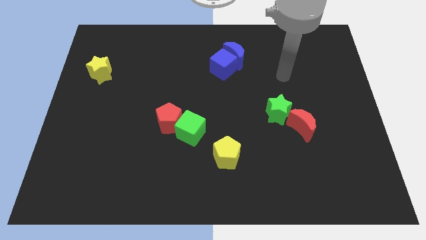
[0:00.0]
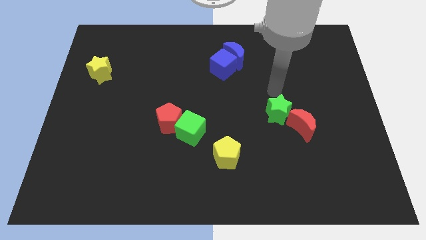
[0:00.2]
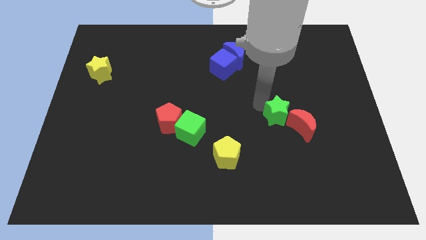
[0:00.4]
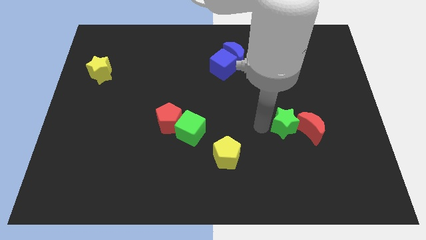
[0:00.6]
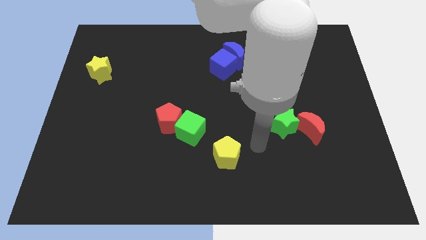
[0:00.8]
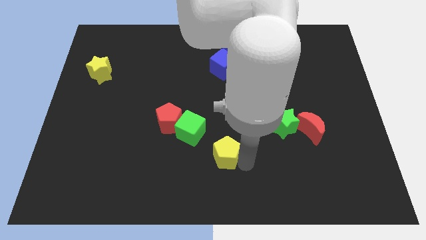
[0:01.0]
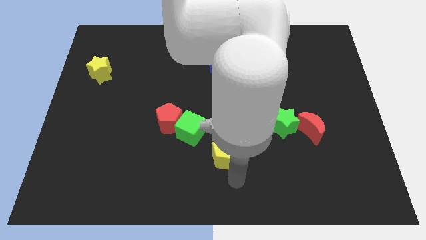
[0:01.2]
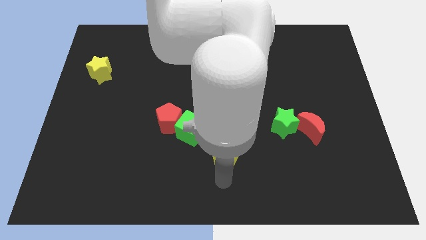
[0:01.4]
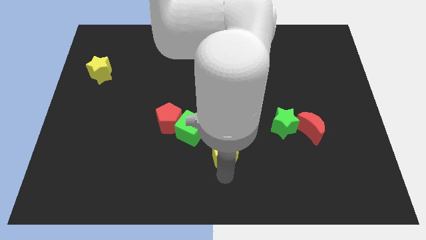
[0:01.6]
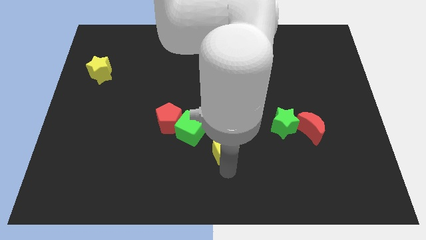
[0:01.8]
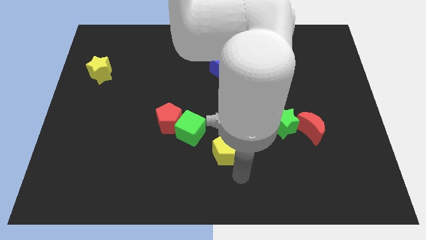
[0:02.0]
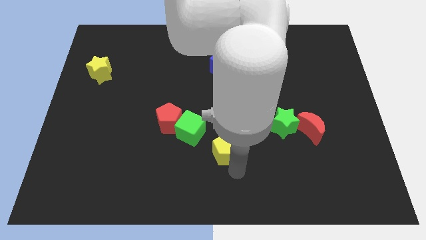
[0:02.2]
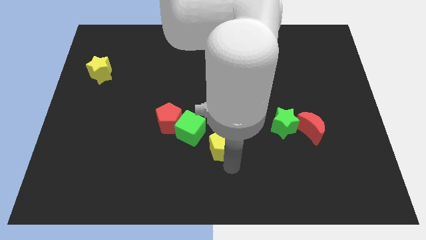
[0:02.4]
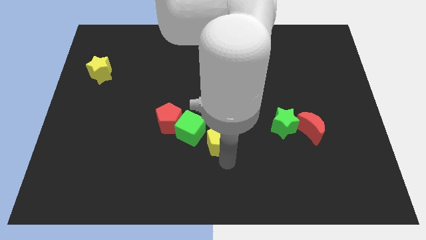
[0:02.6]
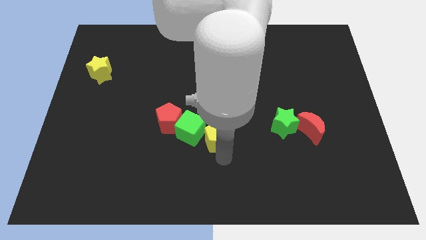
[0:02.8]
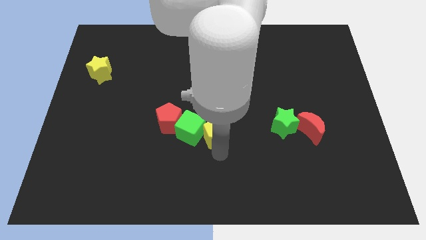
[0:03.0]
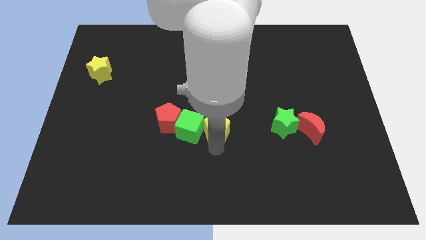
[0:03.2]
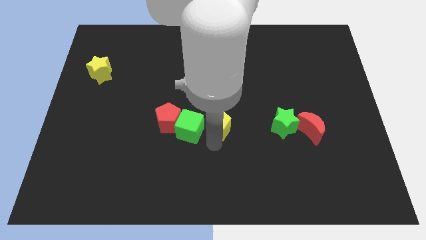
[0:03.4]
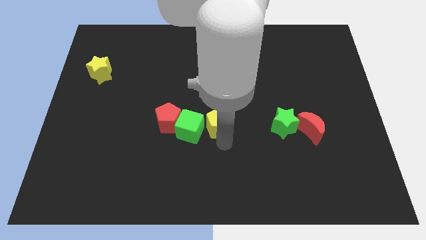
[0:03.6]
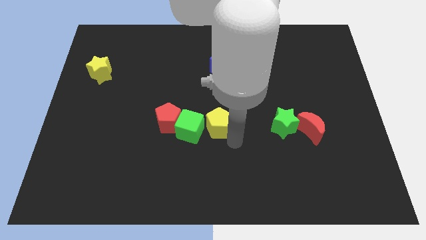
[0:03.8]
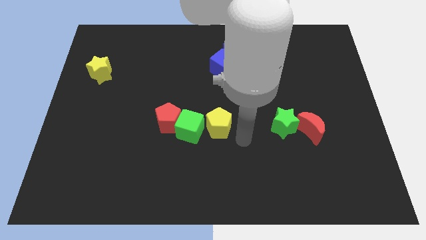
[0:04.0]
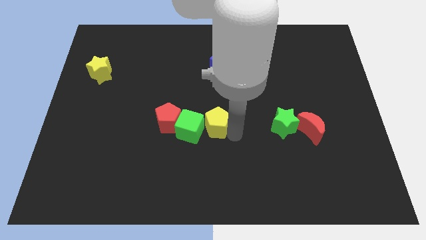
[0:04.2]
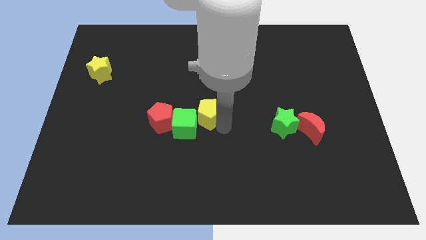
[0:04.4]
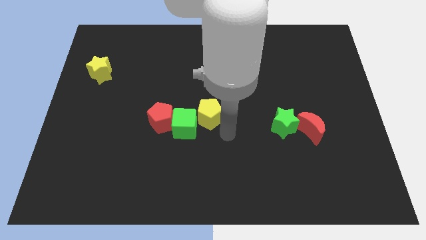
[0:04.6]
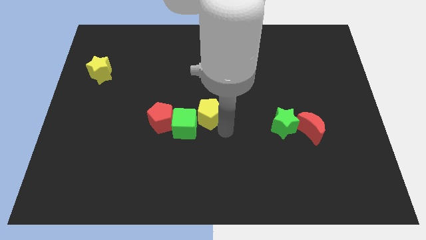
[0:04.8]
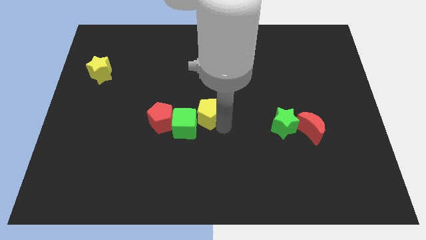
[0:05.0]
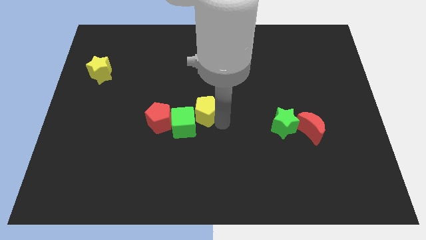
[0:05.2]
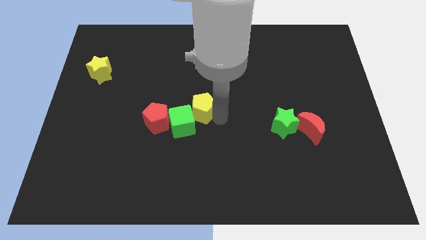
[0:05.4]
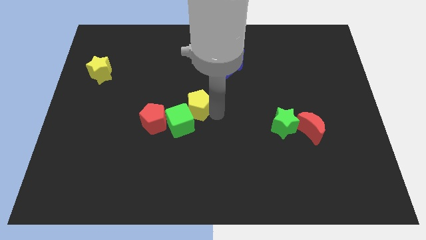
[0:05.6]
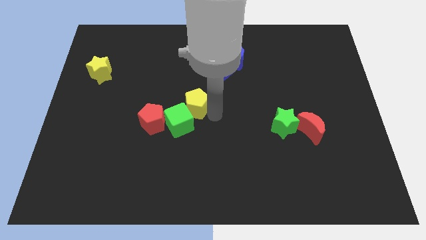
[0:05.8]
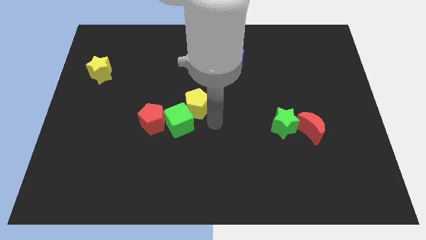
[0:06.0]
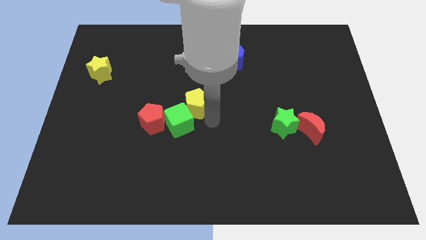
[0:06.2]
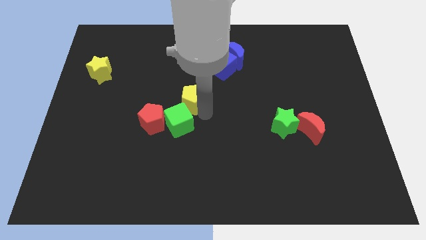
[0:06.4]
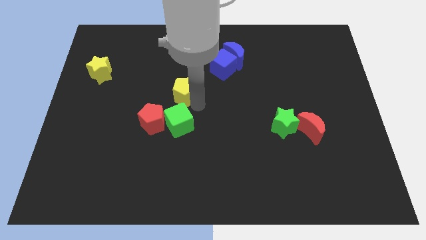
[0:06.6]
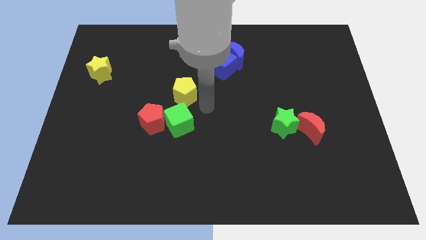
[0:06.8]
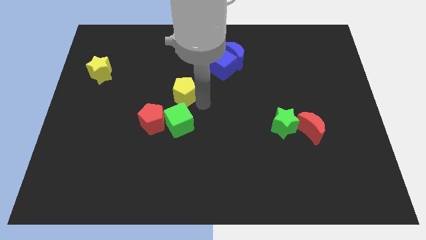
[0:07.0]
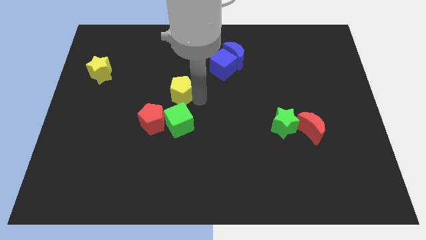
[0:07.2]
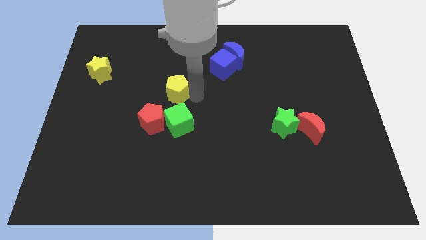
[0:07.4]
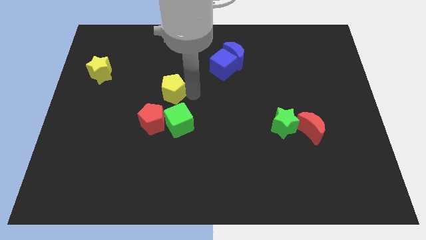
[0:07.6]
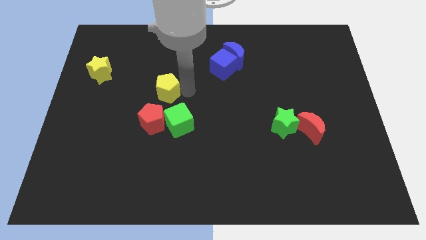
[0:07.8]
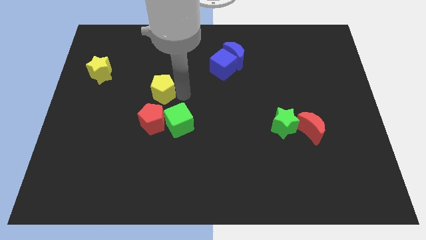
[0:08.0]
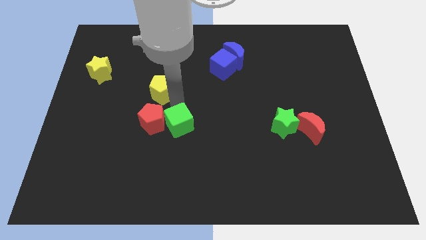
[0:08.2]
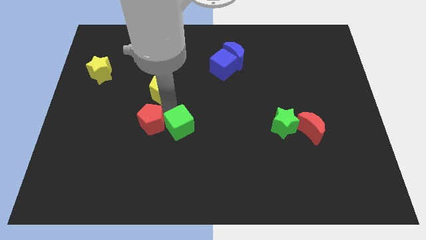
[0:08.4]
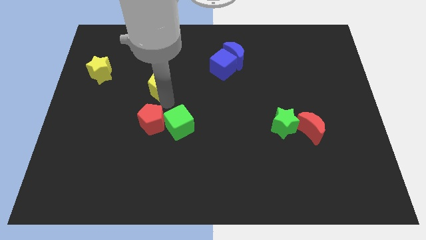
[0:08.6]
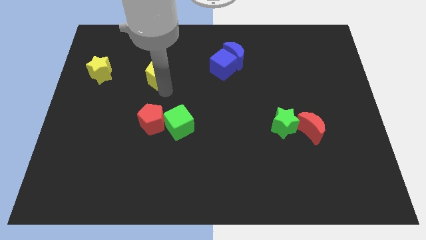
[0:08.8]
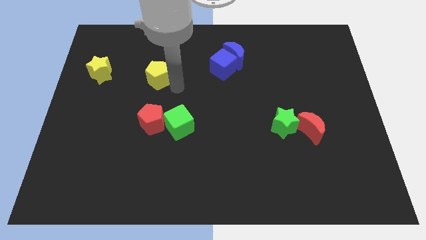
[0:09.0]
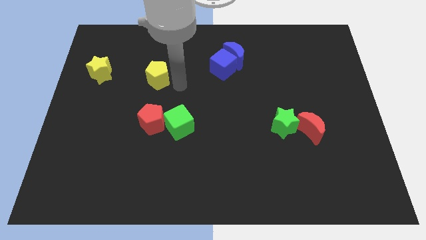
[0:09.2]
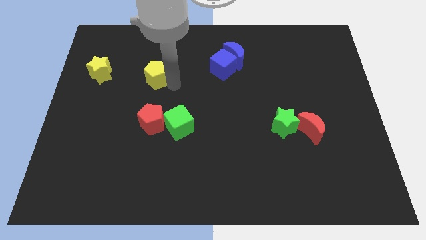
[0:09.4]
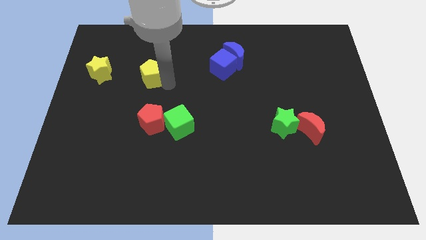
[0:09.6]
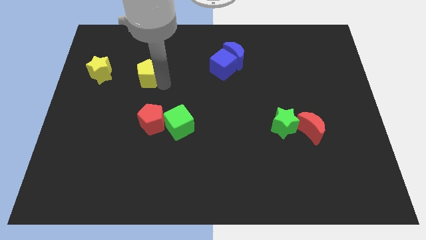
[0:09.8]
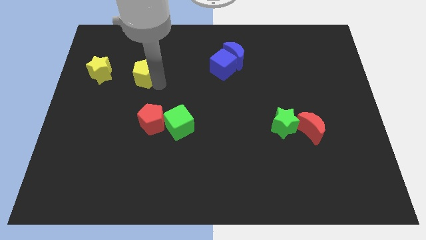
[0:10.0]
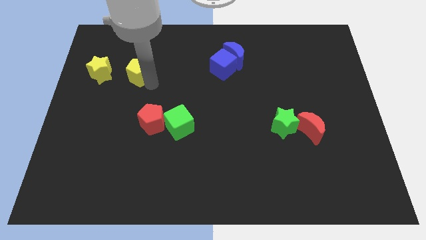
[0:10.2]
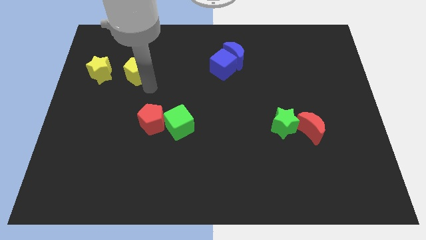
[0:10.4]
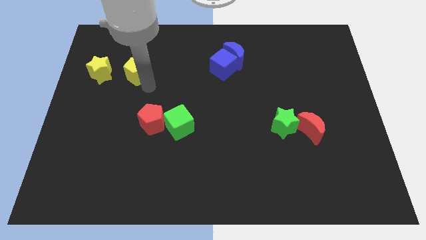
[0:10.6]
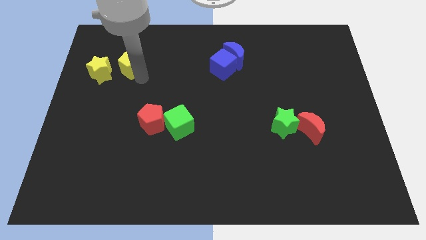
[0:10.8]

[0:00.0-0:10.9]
move the yellow pentagon to the top right of the yellow star

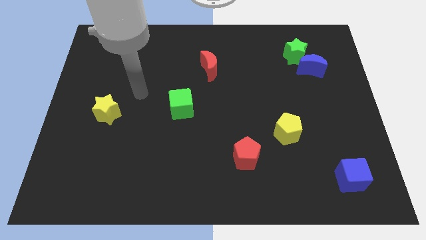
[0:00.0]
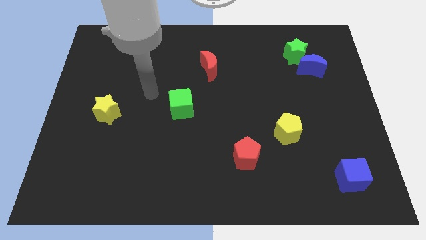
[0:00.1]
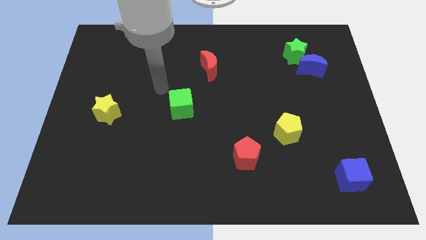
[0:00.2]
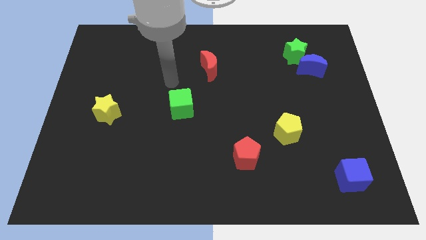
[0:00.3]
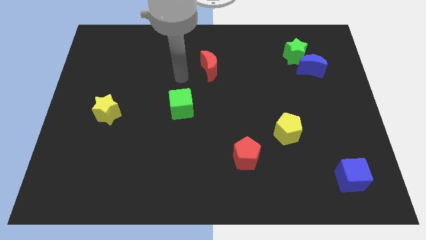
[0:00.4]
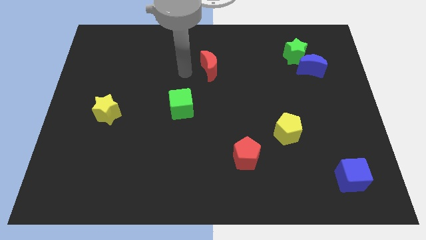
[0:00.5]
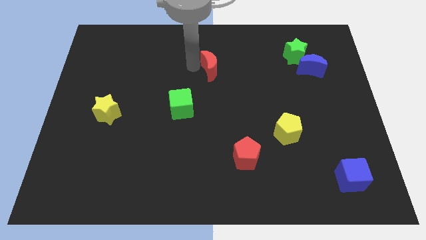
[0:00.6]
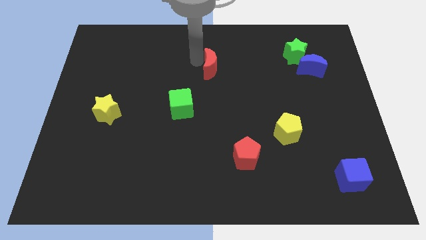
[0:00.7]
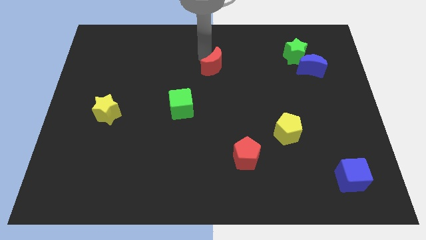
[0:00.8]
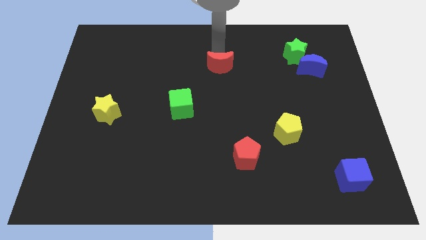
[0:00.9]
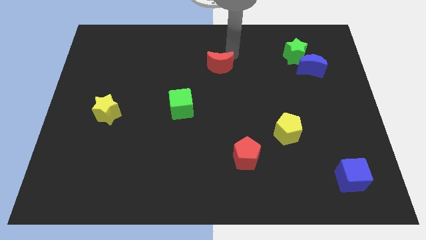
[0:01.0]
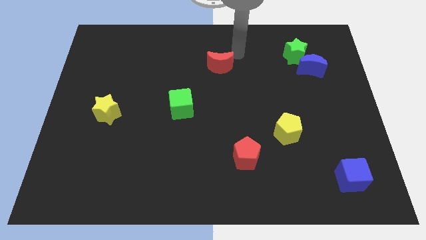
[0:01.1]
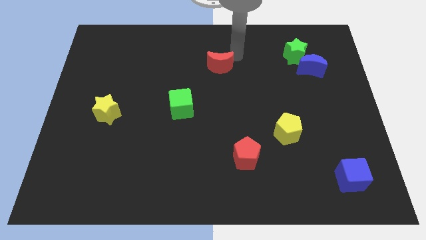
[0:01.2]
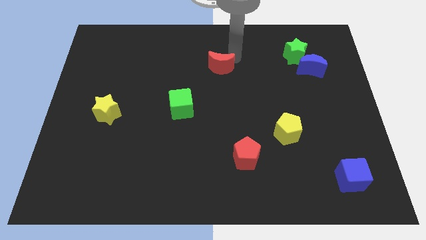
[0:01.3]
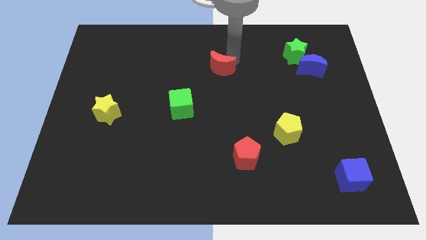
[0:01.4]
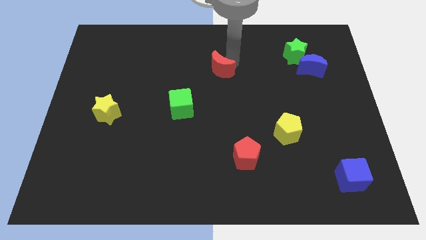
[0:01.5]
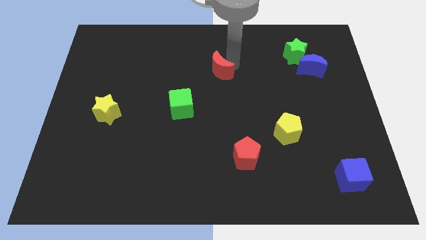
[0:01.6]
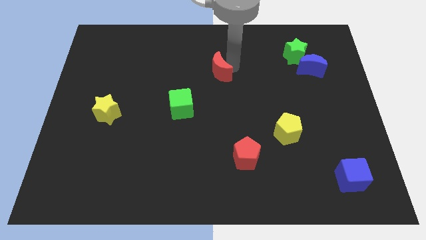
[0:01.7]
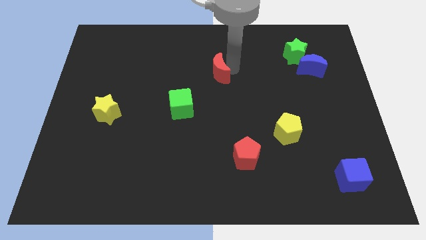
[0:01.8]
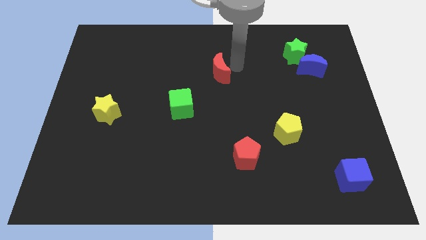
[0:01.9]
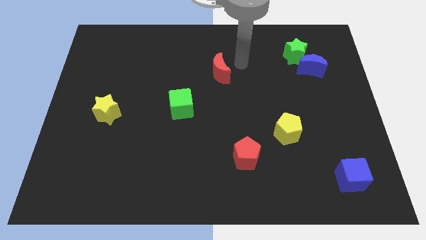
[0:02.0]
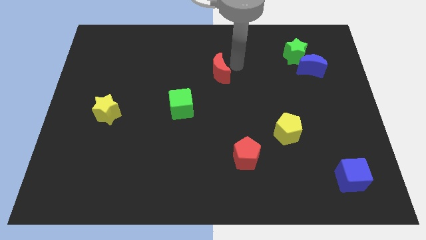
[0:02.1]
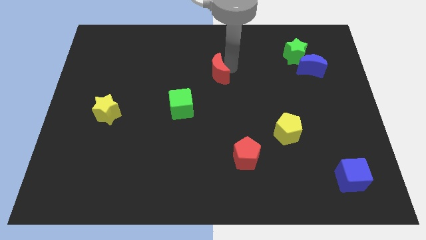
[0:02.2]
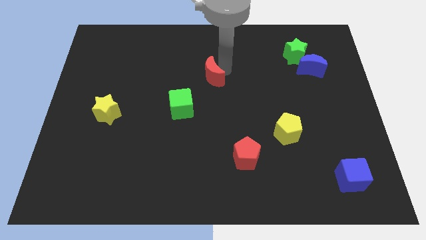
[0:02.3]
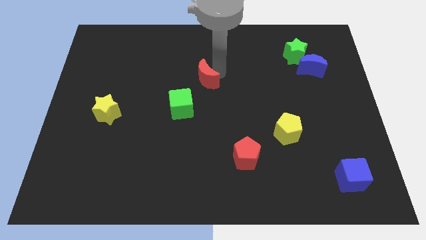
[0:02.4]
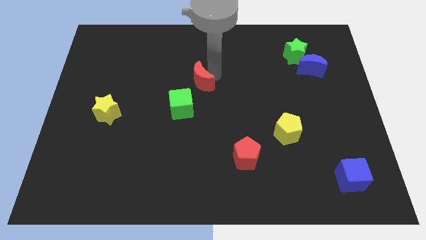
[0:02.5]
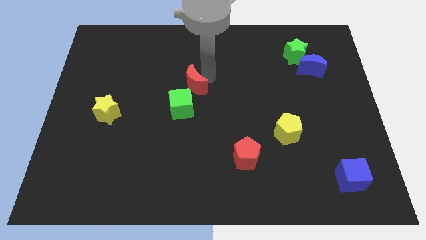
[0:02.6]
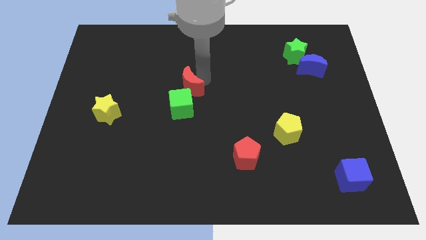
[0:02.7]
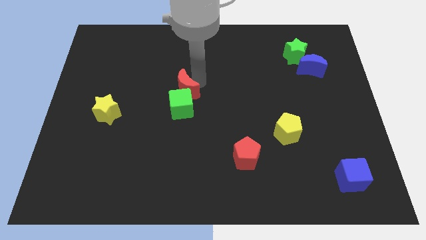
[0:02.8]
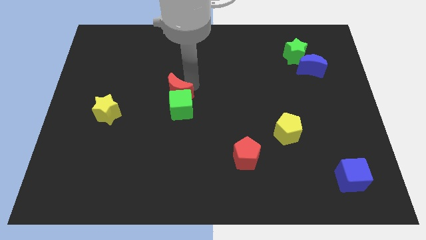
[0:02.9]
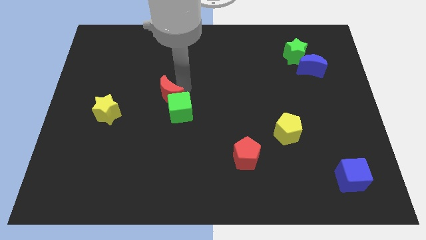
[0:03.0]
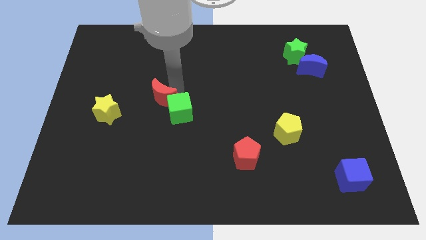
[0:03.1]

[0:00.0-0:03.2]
slide the red moon right of the yellow star
